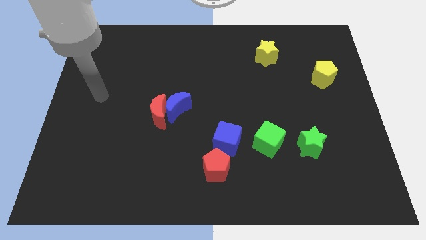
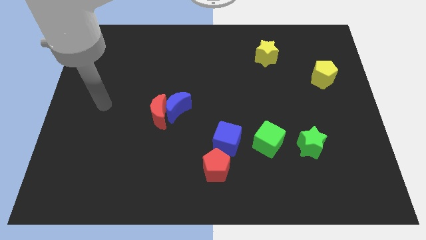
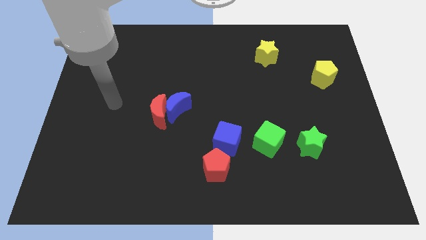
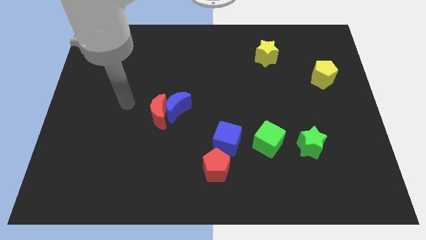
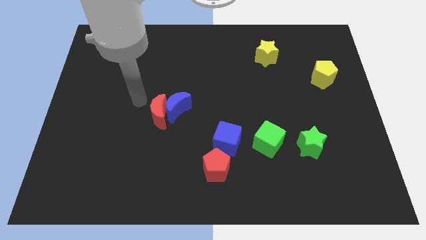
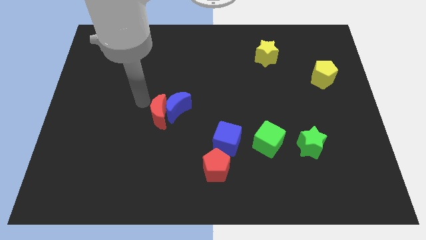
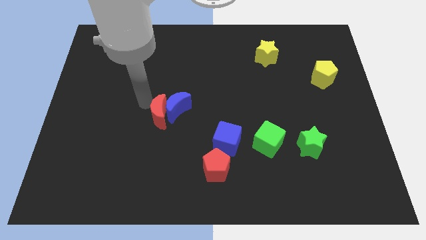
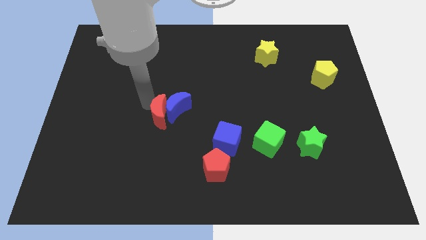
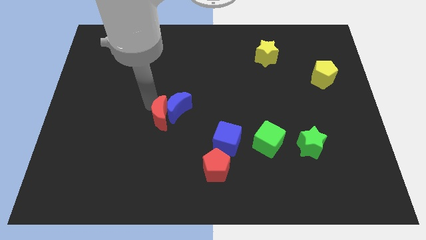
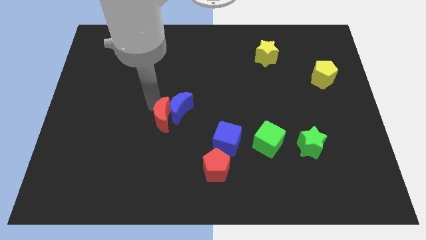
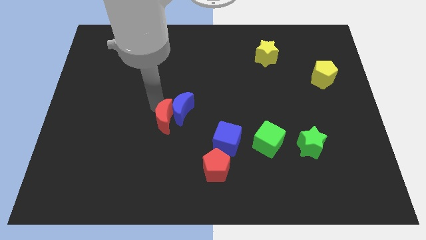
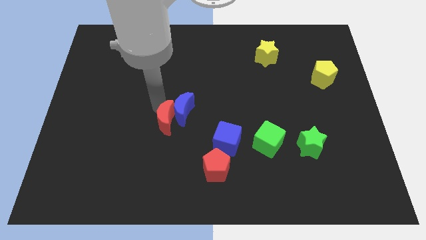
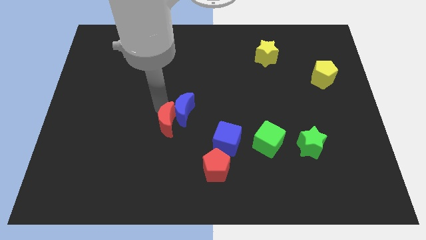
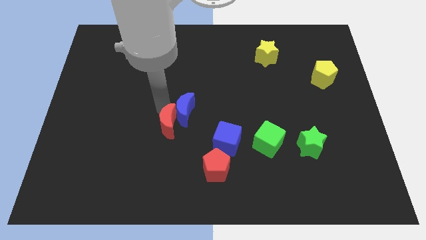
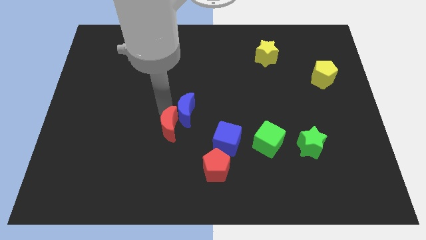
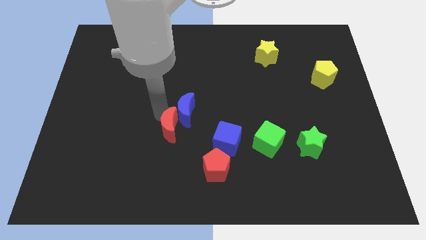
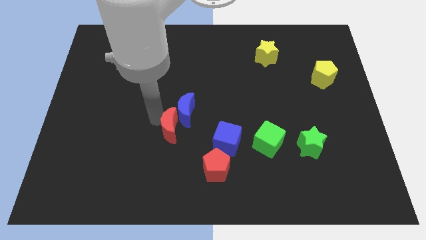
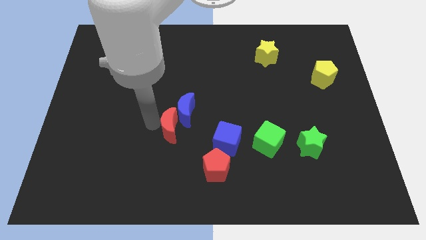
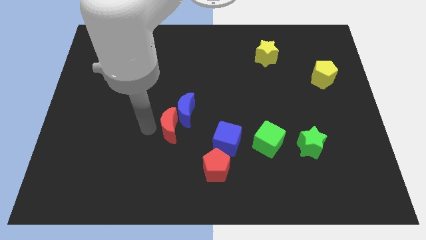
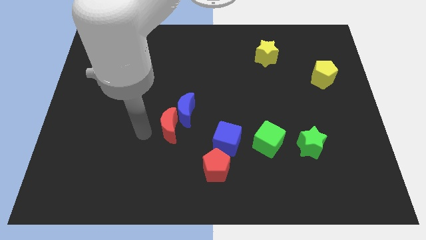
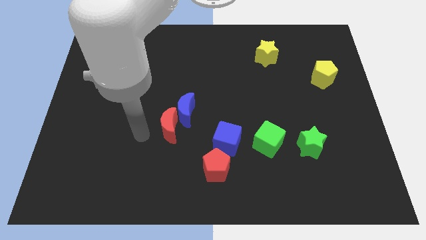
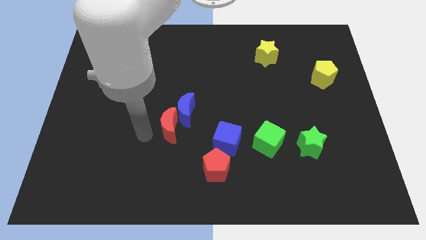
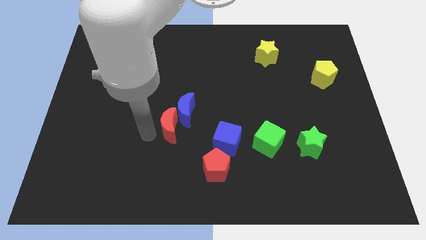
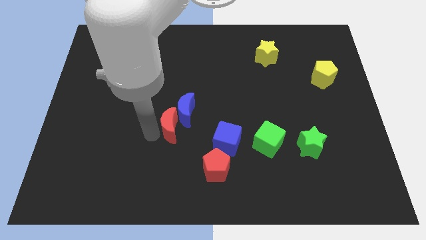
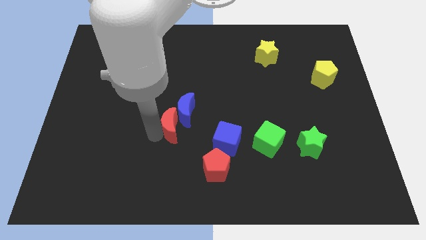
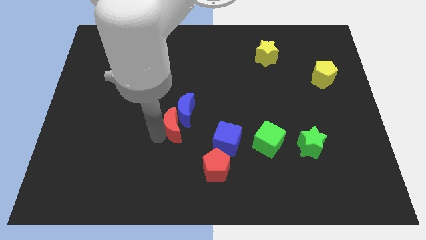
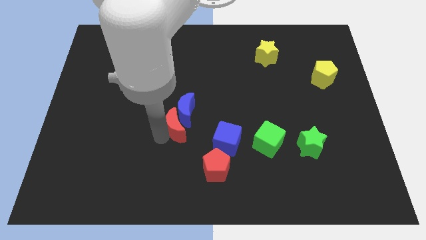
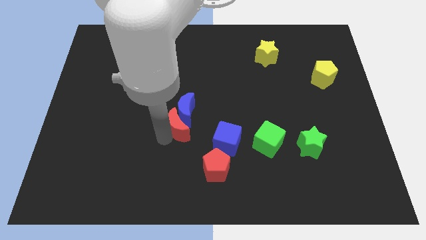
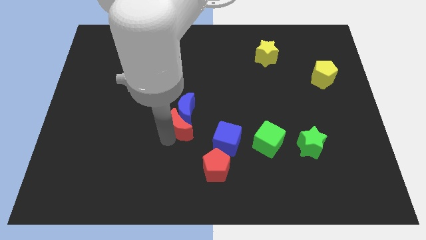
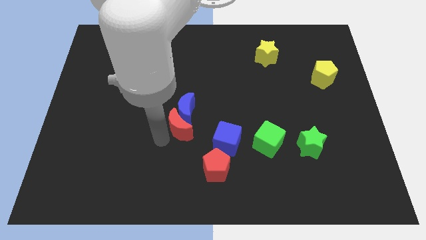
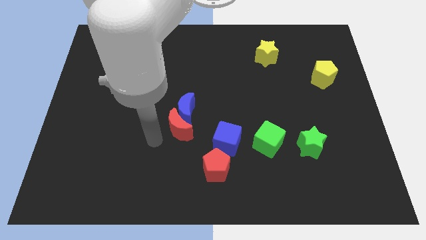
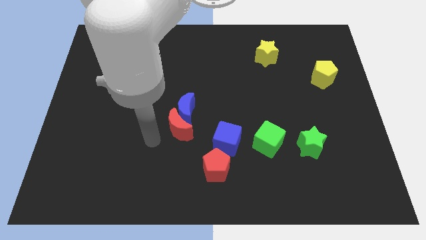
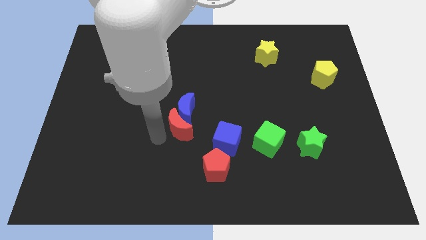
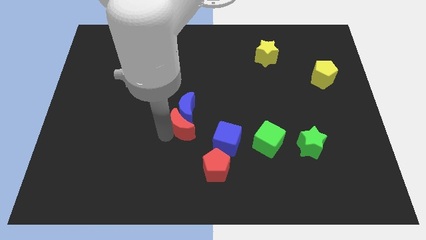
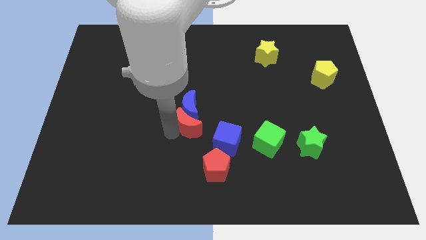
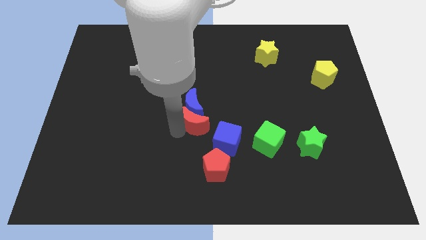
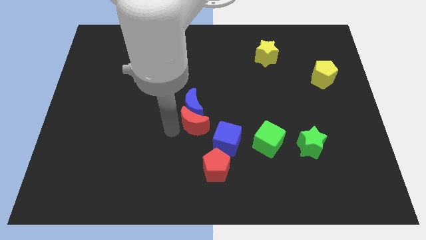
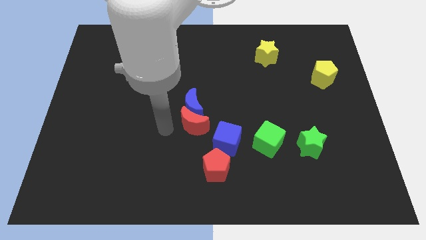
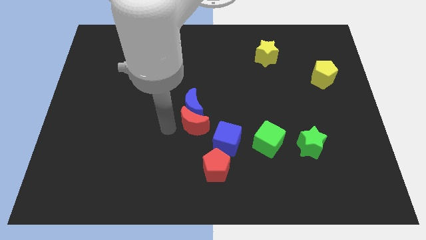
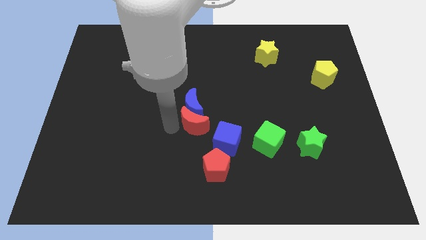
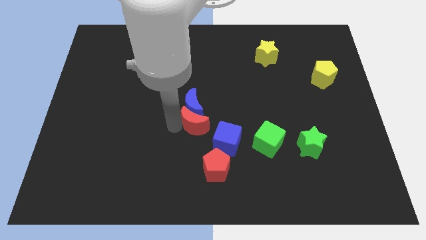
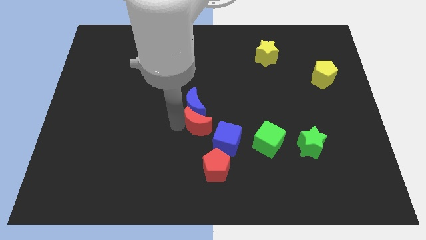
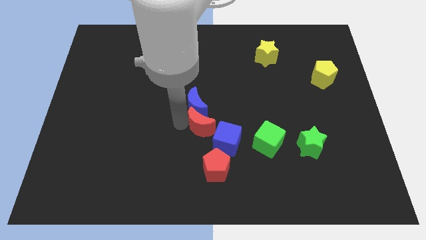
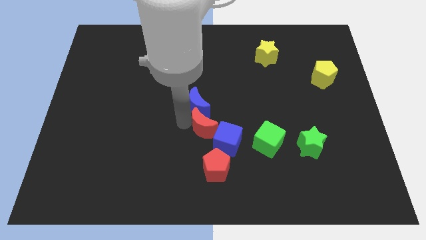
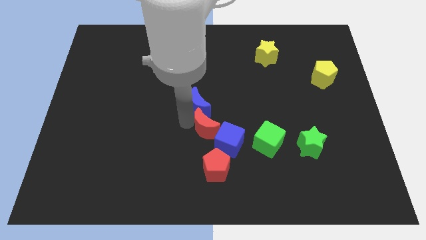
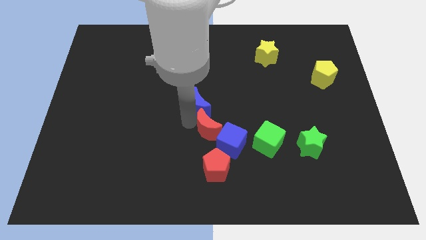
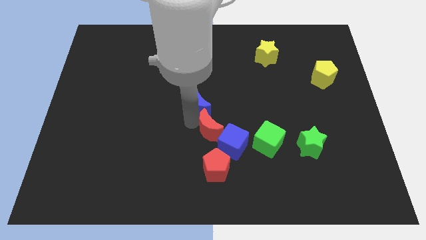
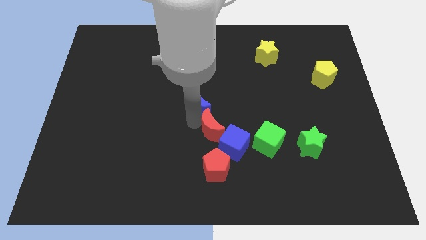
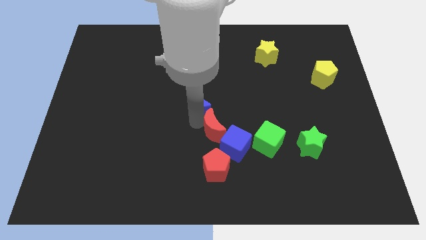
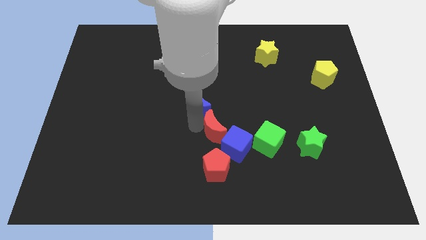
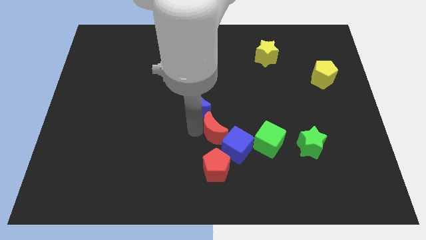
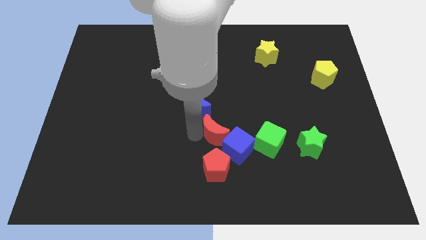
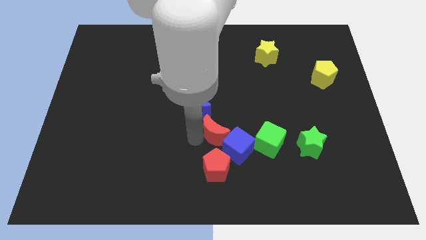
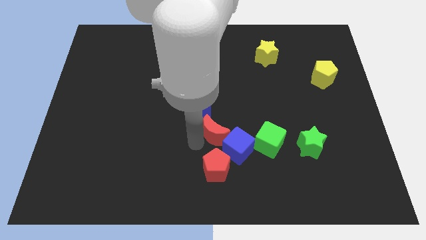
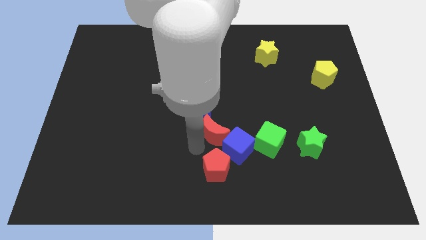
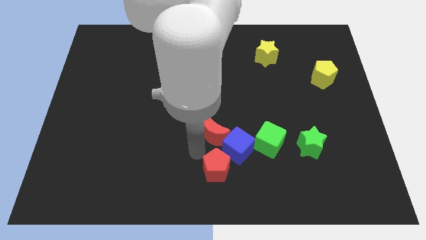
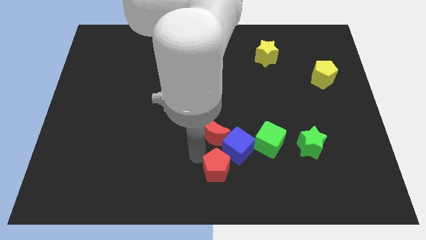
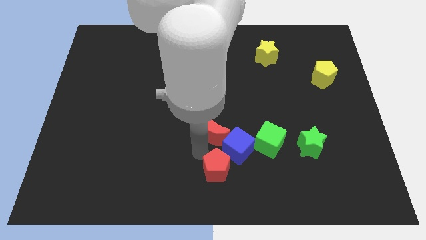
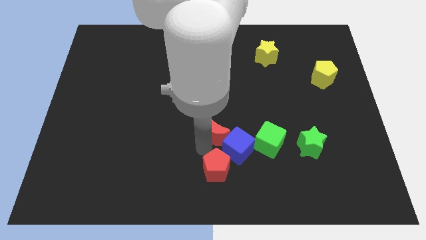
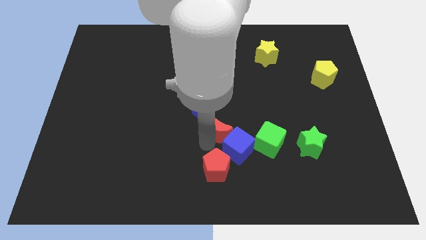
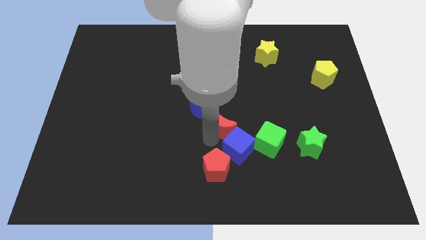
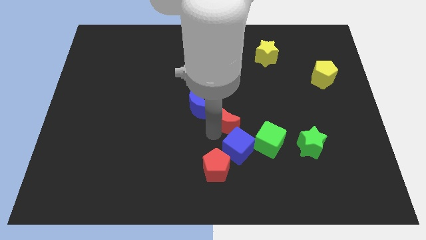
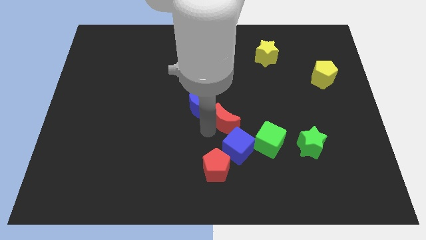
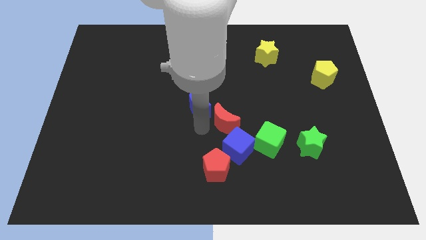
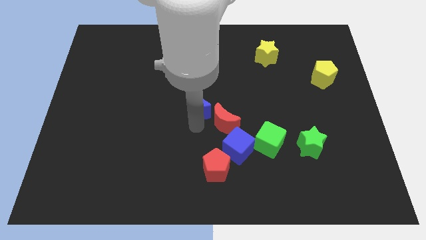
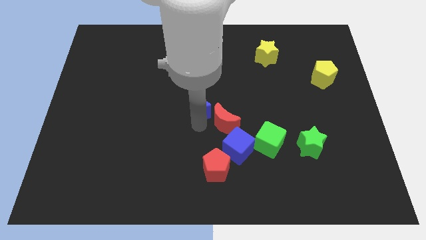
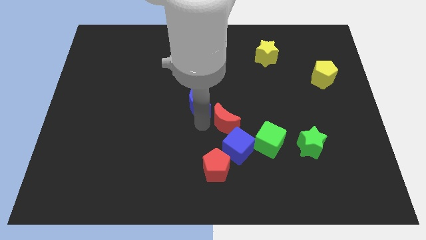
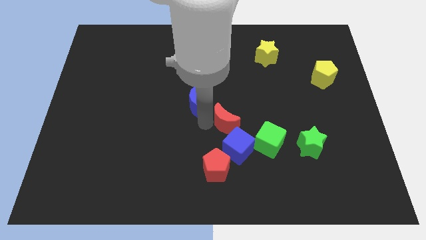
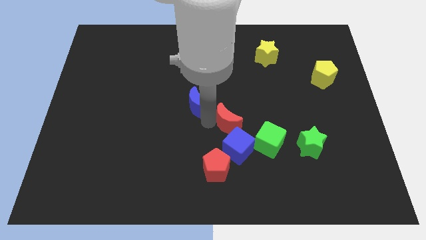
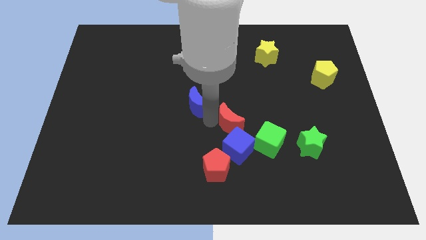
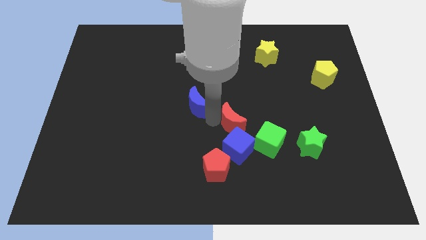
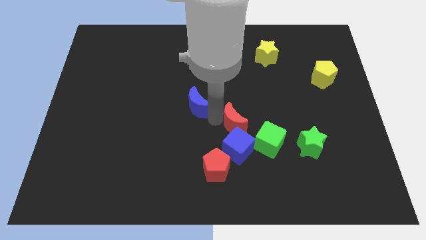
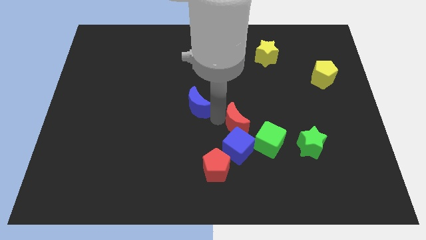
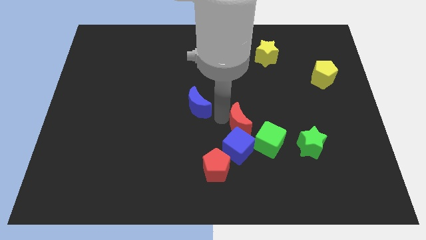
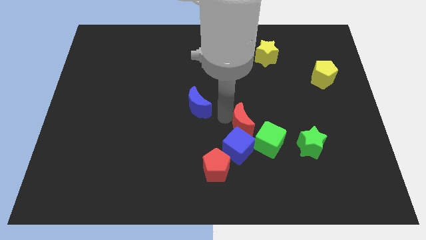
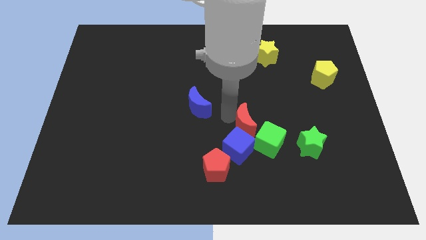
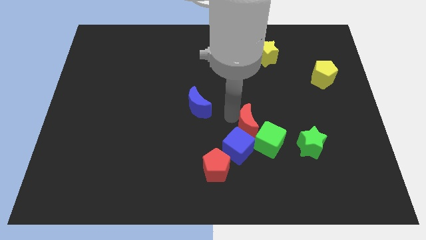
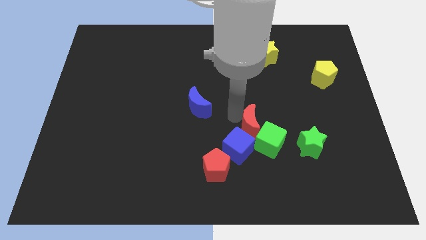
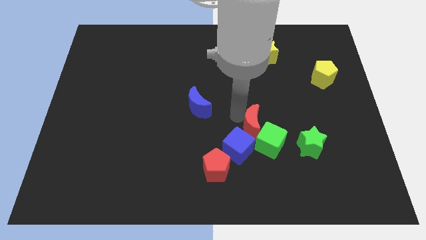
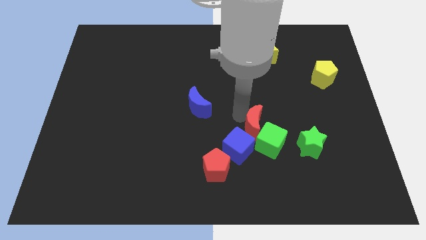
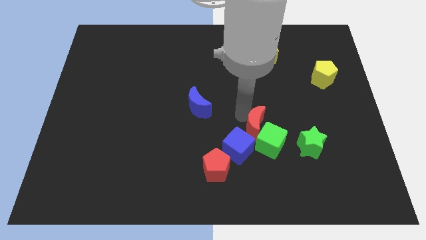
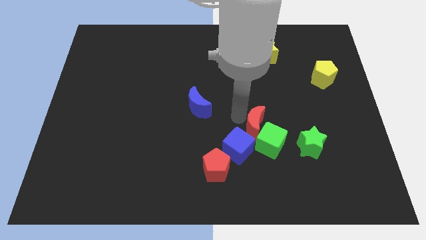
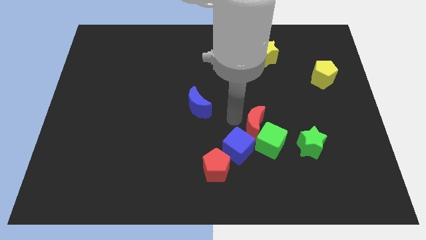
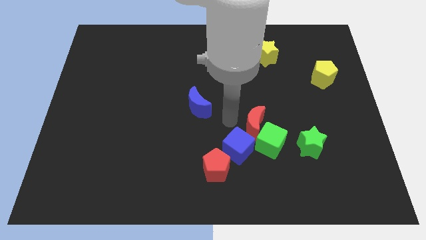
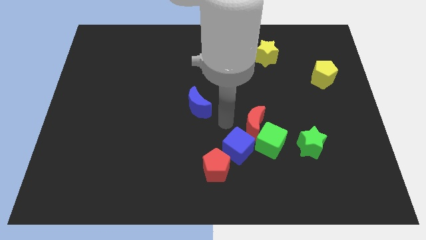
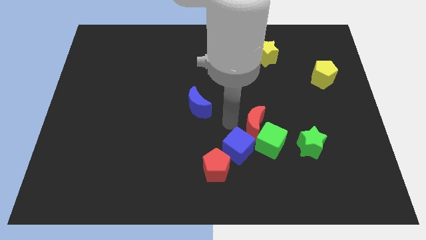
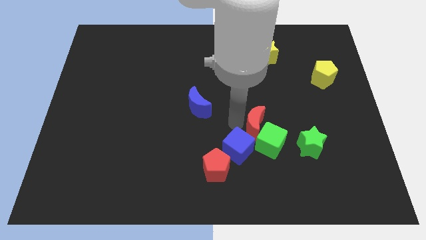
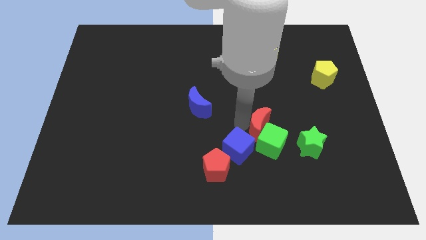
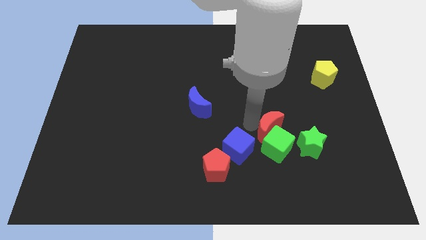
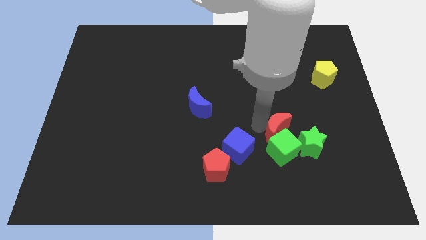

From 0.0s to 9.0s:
move the red moon just right of the blue cube
